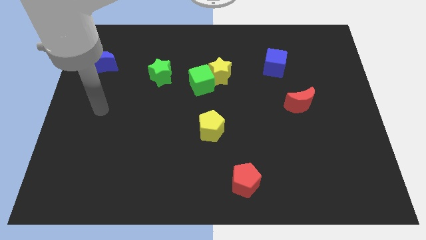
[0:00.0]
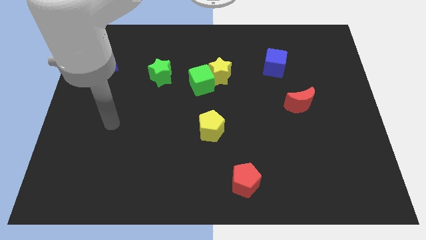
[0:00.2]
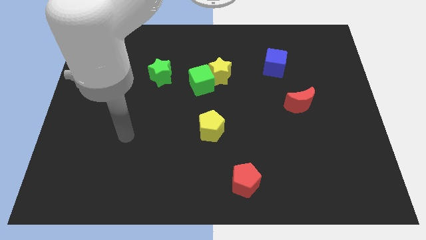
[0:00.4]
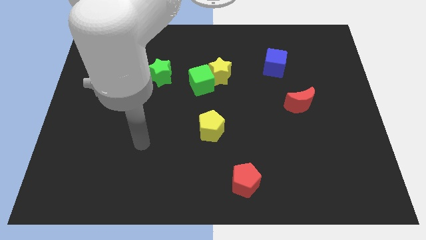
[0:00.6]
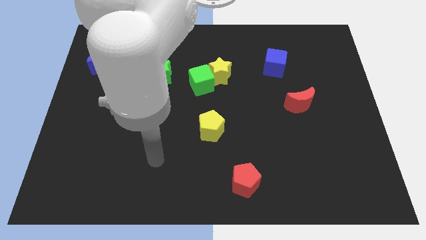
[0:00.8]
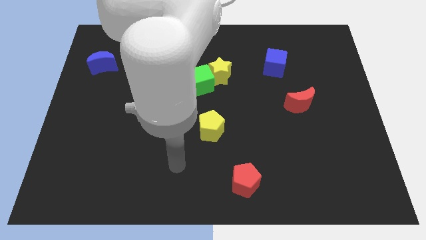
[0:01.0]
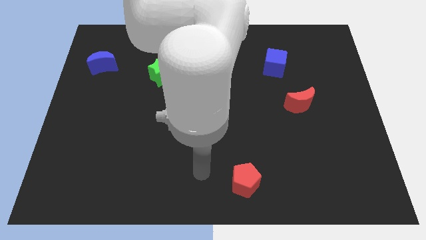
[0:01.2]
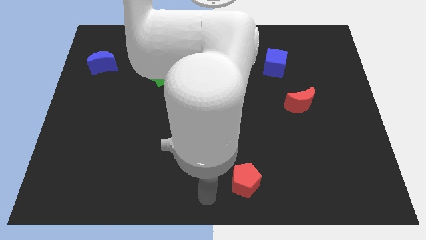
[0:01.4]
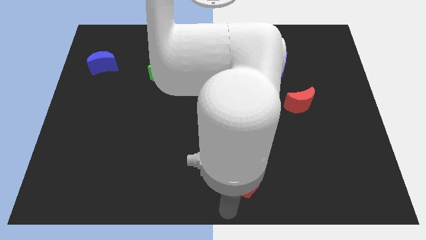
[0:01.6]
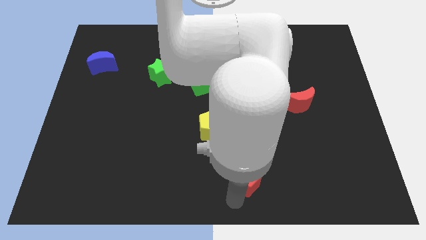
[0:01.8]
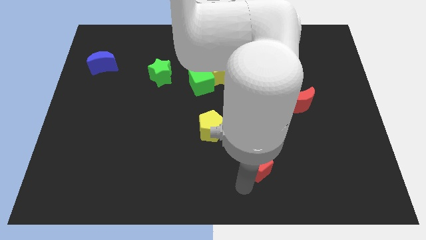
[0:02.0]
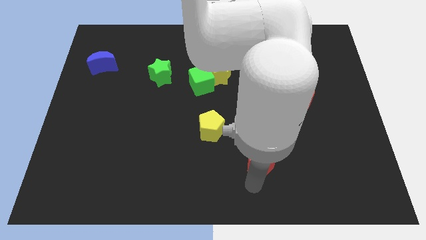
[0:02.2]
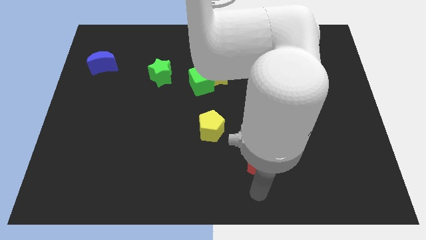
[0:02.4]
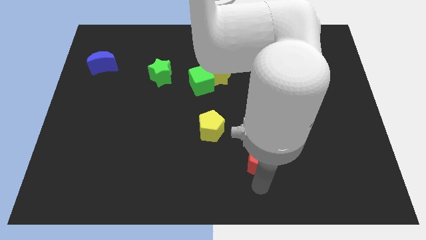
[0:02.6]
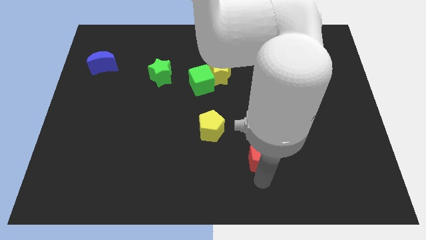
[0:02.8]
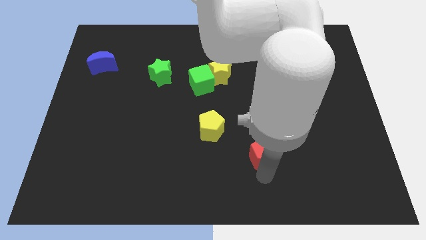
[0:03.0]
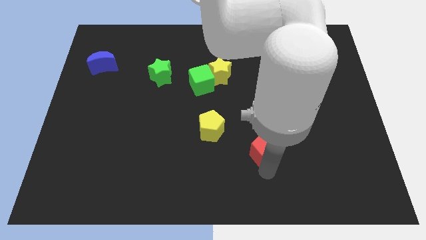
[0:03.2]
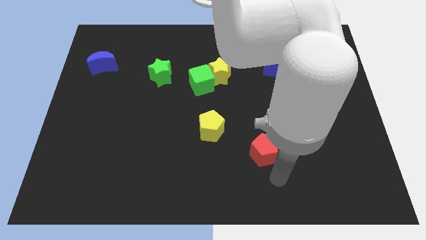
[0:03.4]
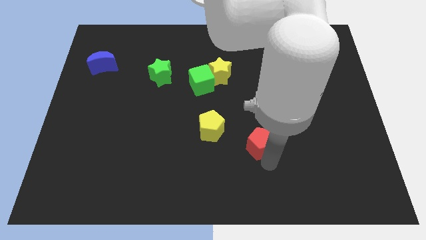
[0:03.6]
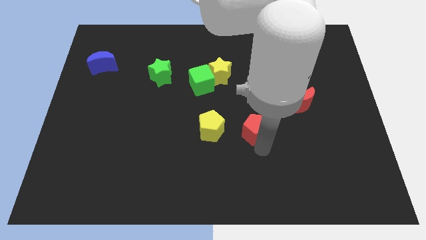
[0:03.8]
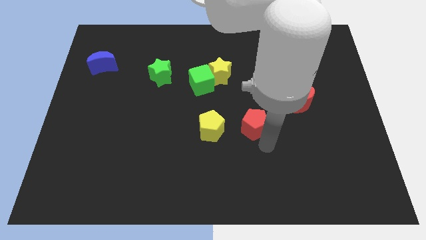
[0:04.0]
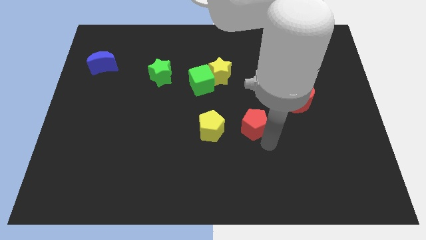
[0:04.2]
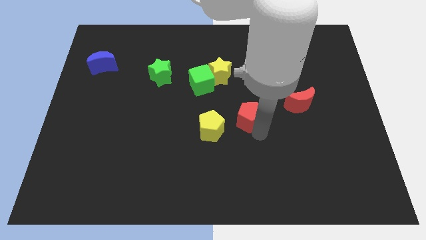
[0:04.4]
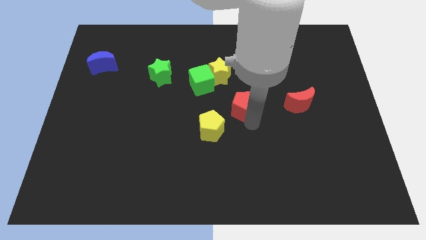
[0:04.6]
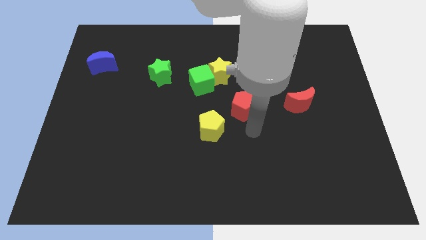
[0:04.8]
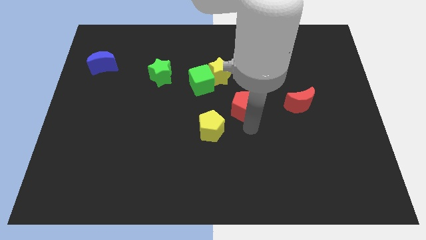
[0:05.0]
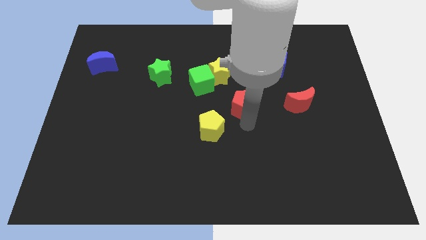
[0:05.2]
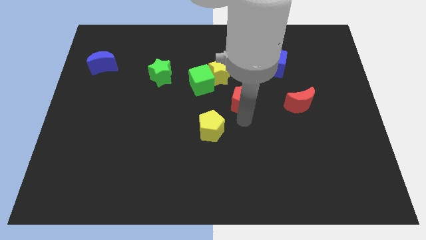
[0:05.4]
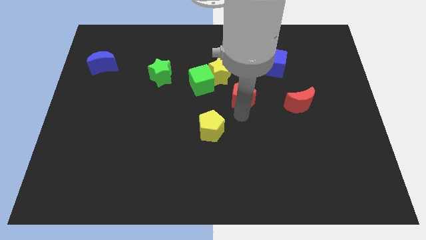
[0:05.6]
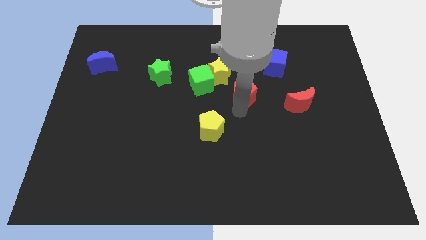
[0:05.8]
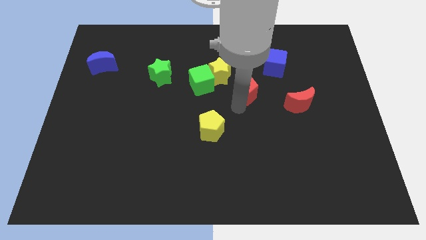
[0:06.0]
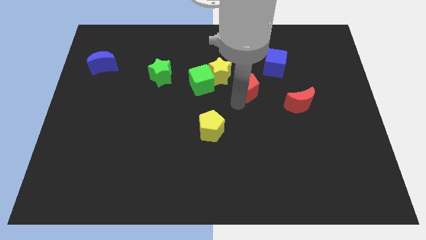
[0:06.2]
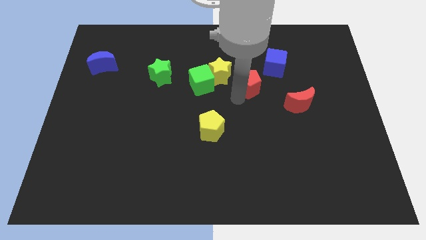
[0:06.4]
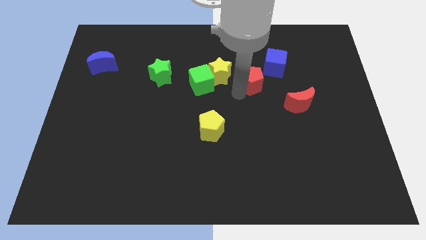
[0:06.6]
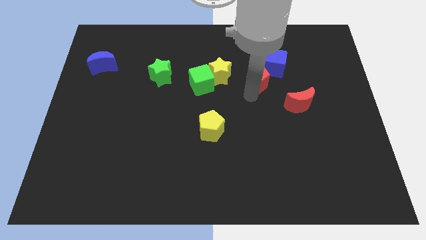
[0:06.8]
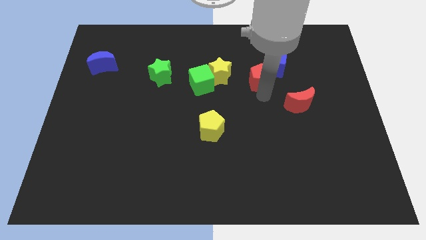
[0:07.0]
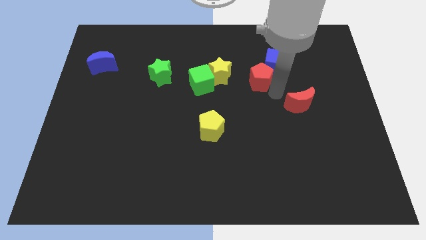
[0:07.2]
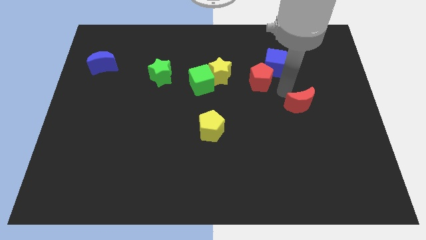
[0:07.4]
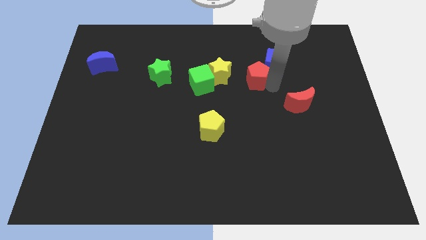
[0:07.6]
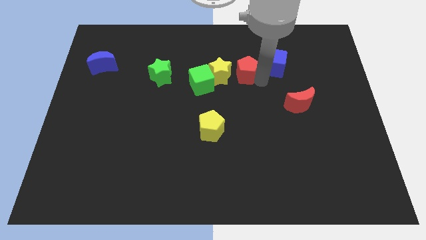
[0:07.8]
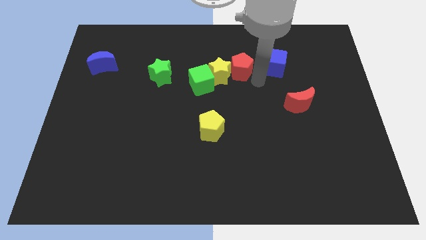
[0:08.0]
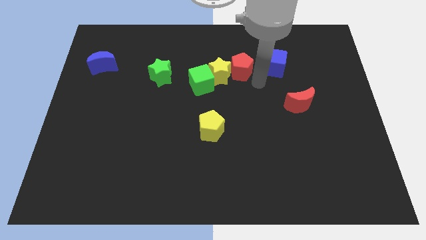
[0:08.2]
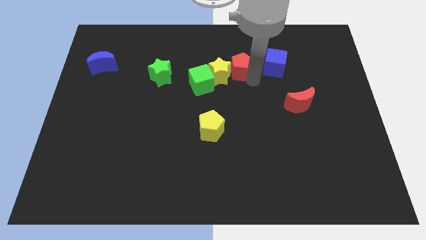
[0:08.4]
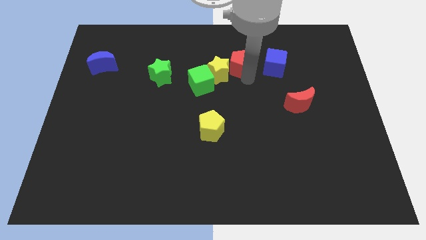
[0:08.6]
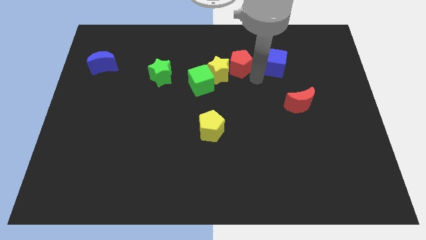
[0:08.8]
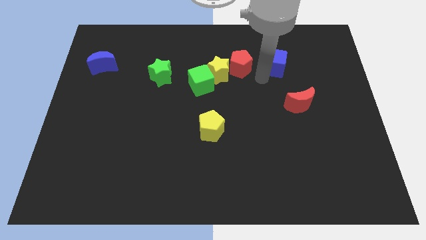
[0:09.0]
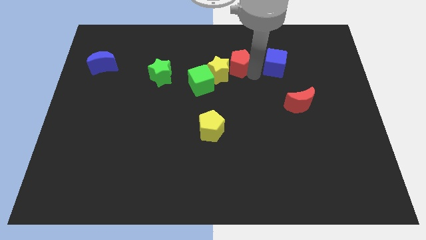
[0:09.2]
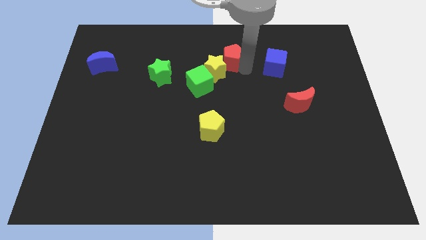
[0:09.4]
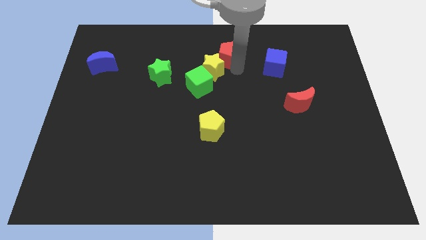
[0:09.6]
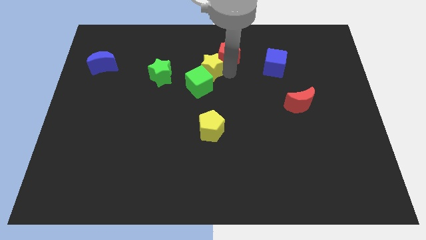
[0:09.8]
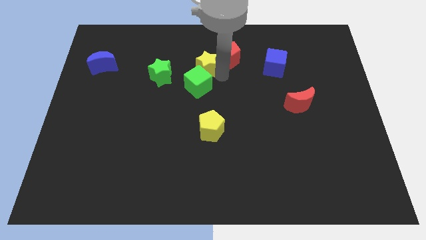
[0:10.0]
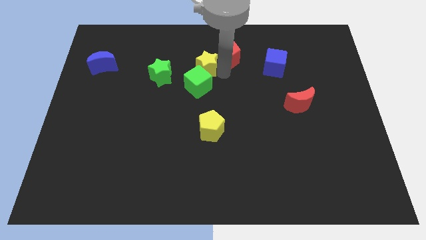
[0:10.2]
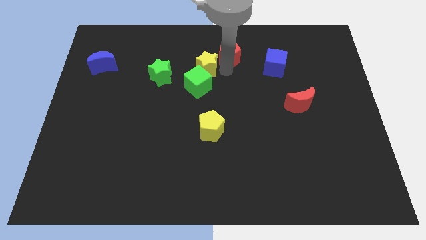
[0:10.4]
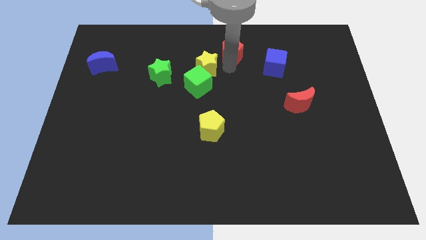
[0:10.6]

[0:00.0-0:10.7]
move the red pentagon to the top

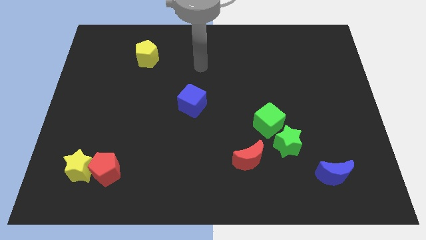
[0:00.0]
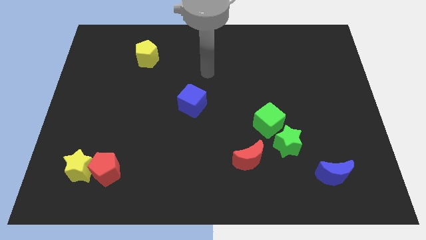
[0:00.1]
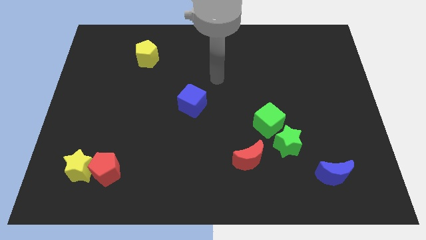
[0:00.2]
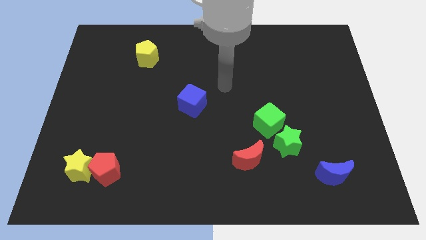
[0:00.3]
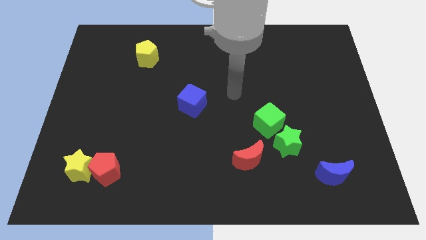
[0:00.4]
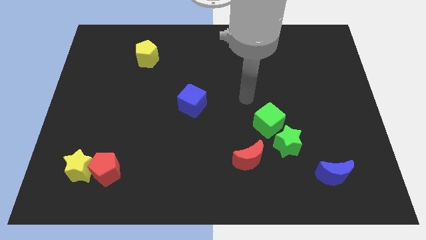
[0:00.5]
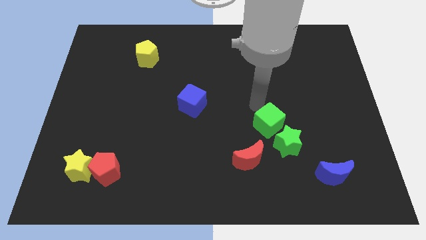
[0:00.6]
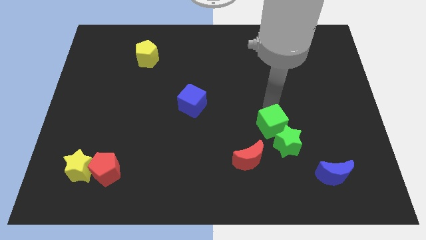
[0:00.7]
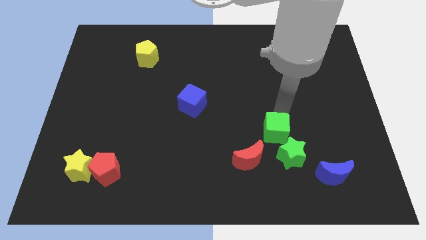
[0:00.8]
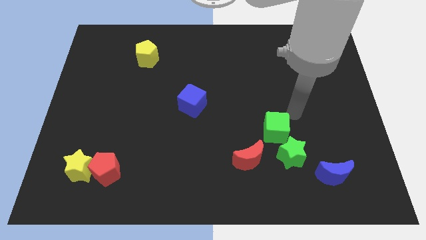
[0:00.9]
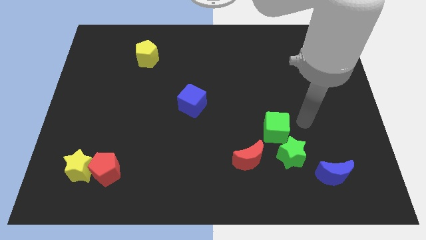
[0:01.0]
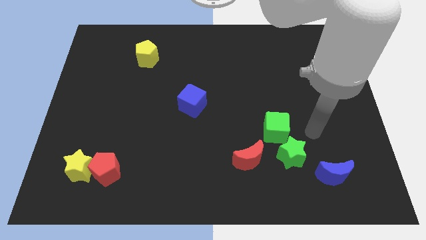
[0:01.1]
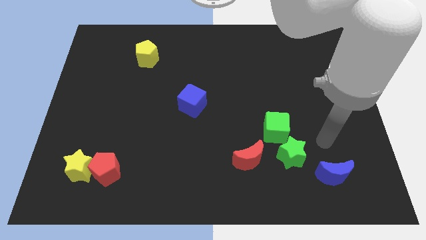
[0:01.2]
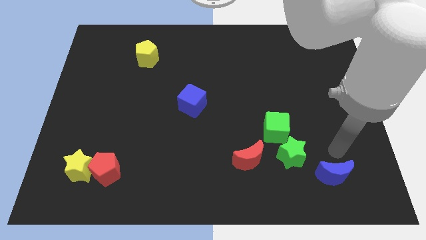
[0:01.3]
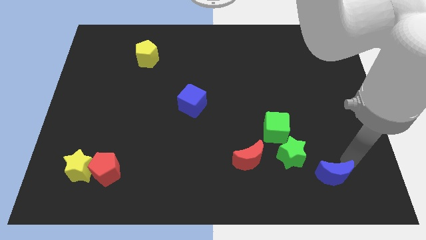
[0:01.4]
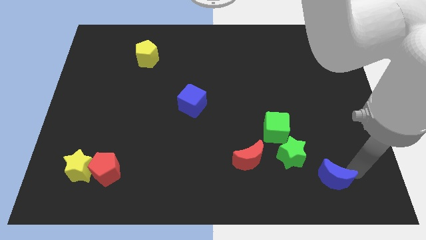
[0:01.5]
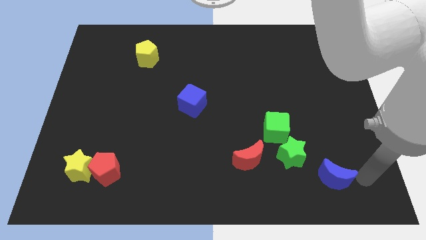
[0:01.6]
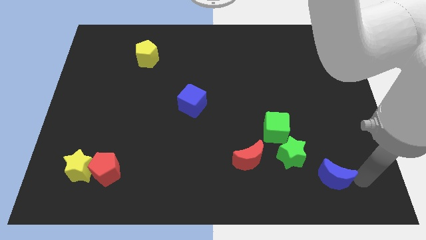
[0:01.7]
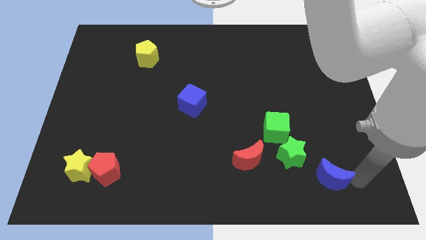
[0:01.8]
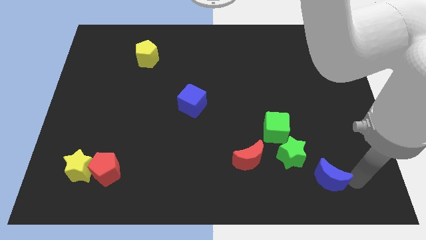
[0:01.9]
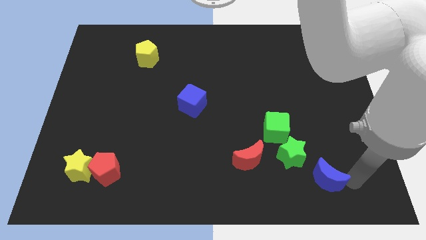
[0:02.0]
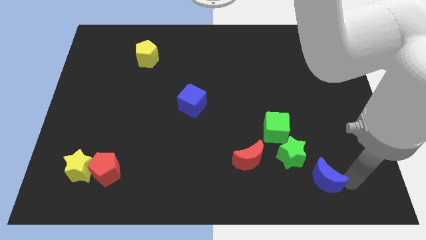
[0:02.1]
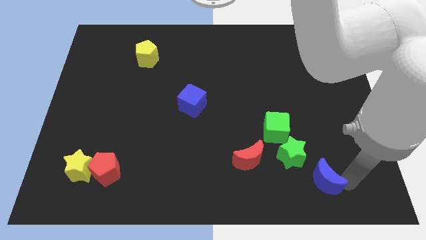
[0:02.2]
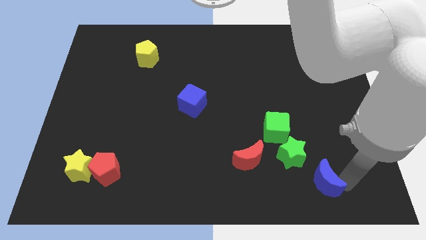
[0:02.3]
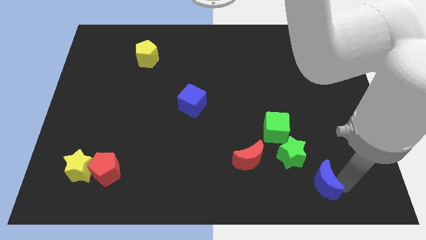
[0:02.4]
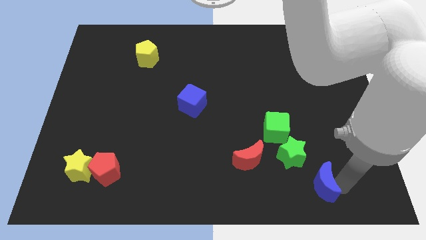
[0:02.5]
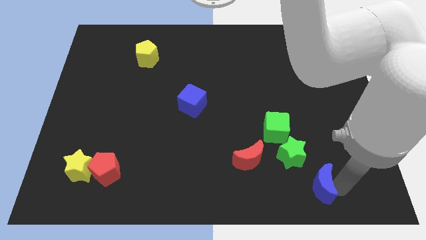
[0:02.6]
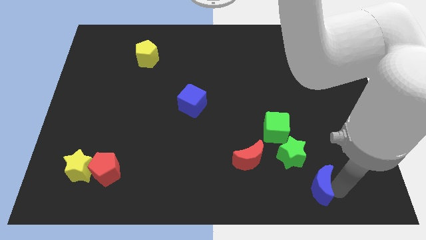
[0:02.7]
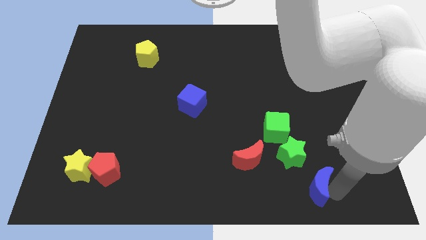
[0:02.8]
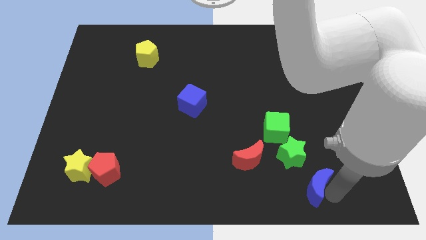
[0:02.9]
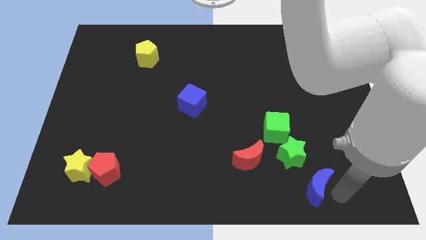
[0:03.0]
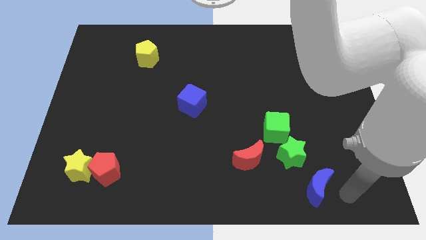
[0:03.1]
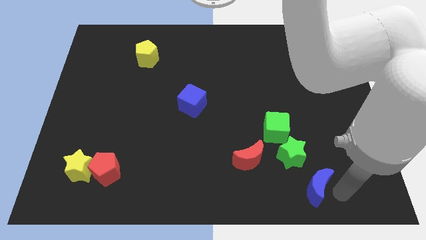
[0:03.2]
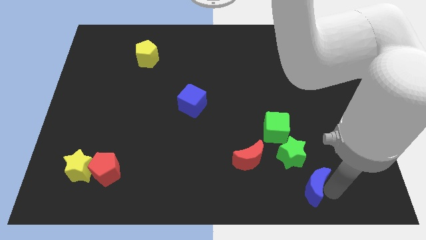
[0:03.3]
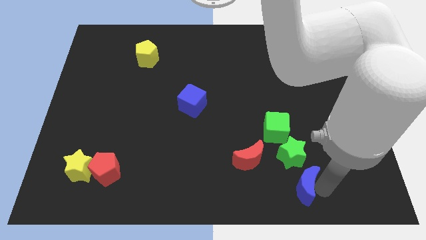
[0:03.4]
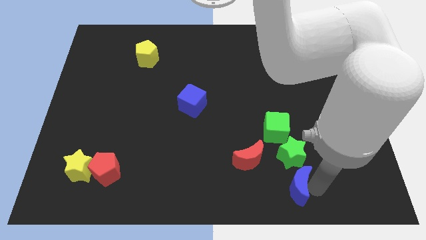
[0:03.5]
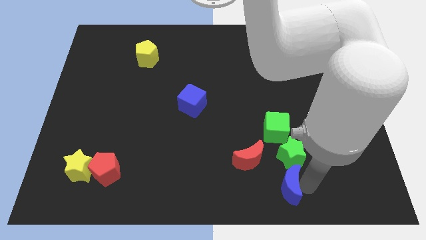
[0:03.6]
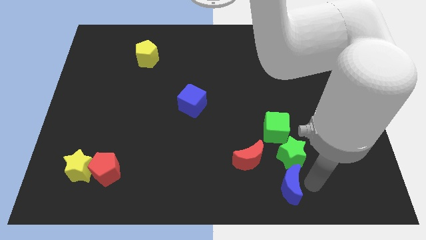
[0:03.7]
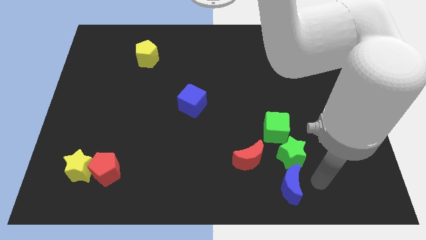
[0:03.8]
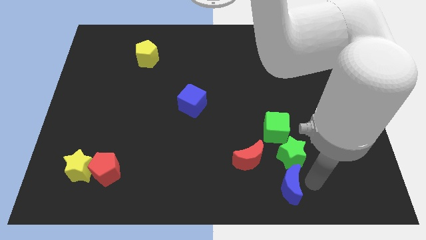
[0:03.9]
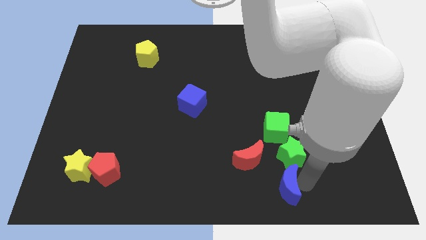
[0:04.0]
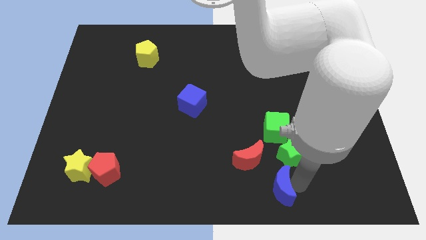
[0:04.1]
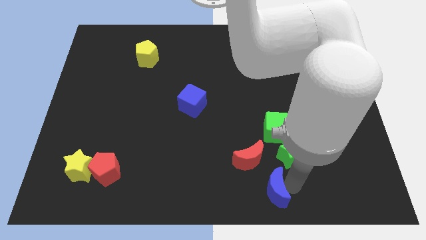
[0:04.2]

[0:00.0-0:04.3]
slide the blue moon to the bottom side
